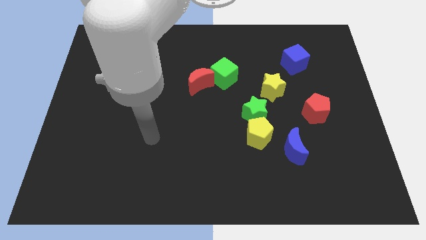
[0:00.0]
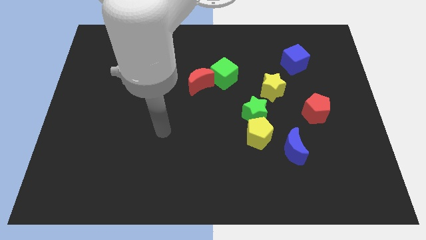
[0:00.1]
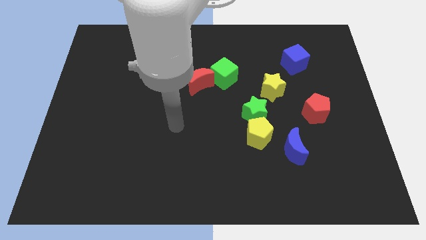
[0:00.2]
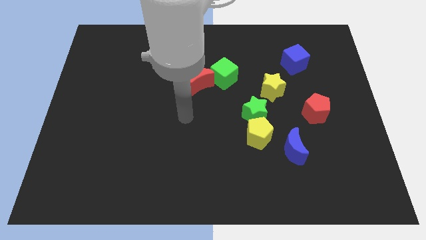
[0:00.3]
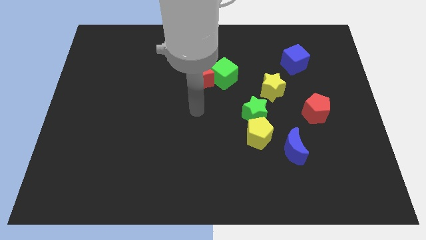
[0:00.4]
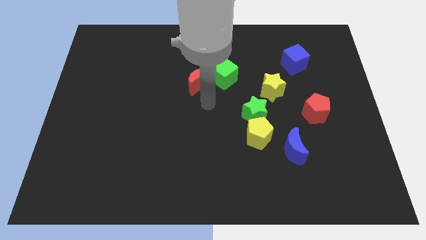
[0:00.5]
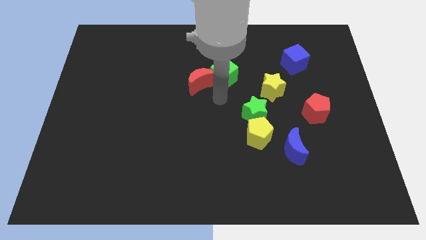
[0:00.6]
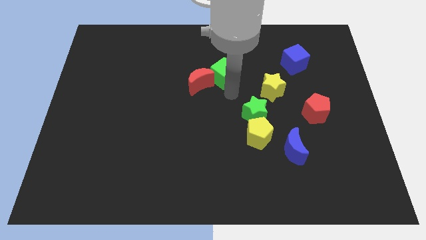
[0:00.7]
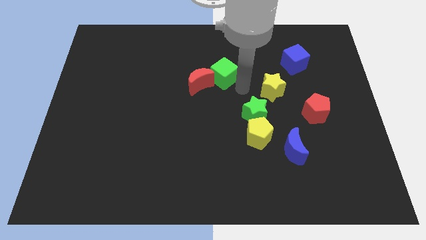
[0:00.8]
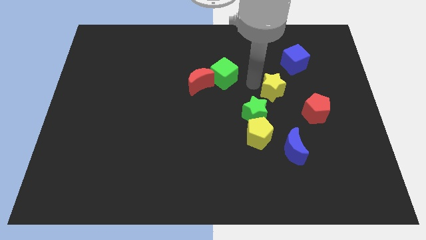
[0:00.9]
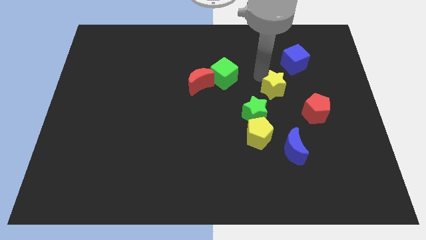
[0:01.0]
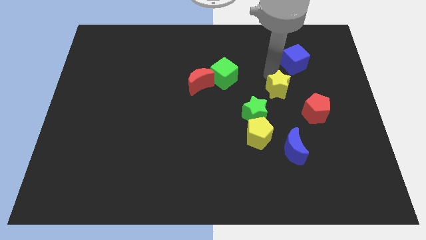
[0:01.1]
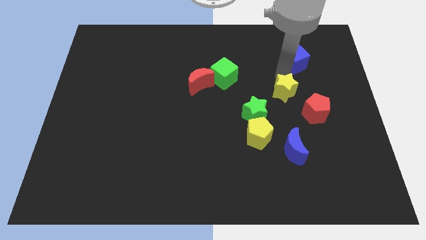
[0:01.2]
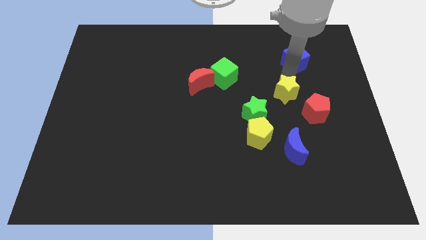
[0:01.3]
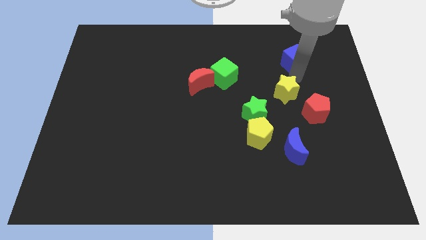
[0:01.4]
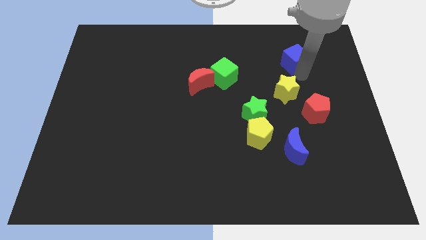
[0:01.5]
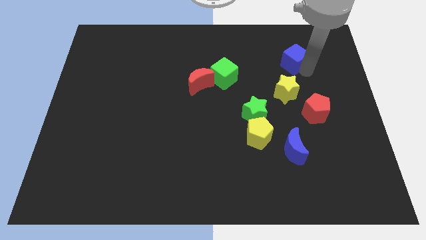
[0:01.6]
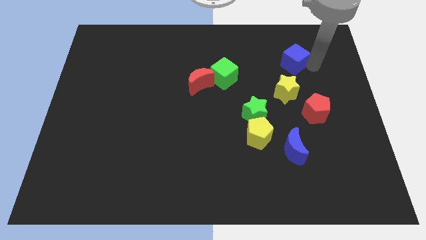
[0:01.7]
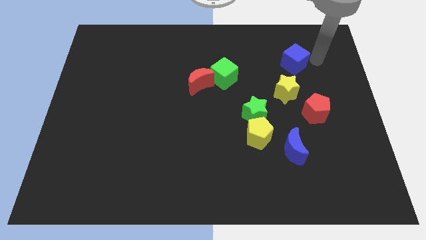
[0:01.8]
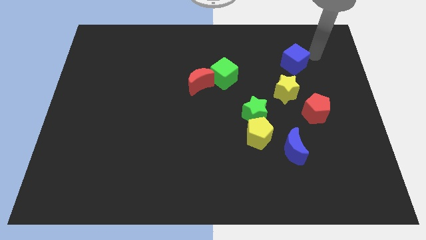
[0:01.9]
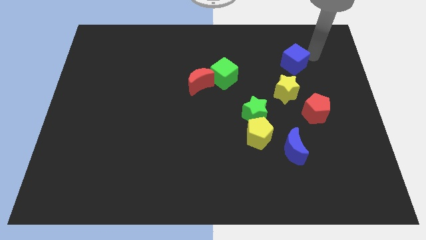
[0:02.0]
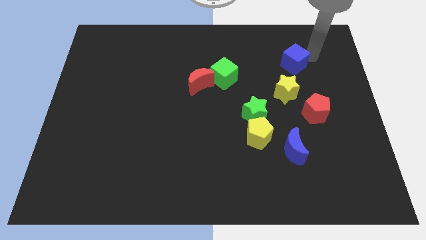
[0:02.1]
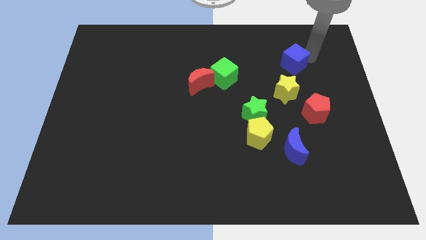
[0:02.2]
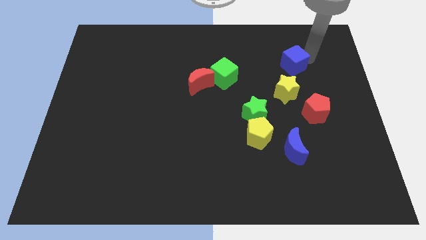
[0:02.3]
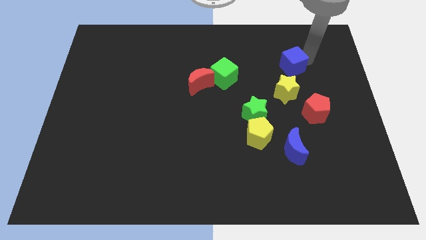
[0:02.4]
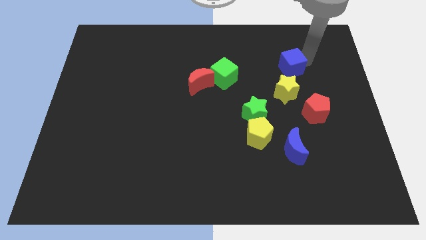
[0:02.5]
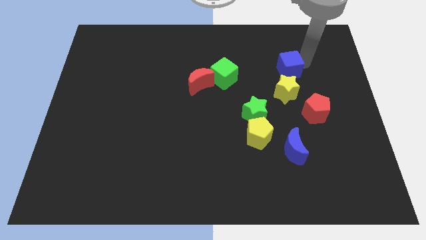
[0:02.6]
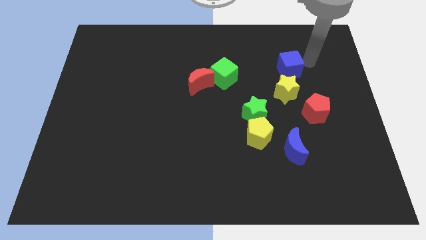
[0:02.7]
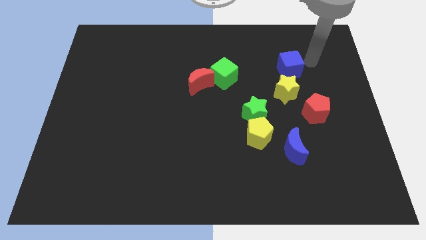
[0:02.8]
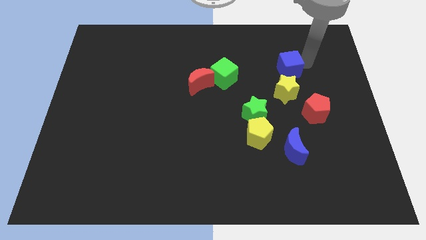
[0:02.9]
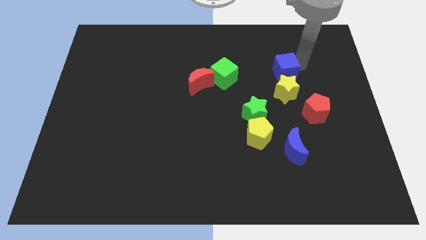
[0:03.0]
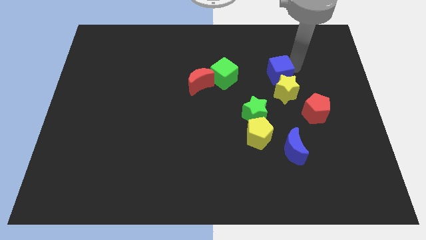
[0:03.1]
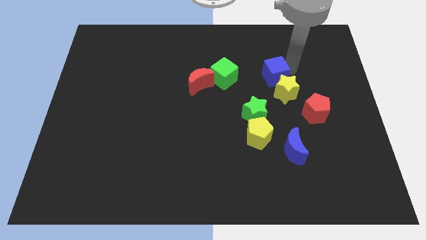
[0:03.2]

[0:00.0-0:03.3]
push the blue cube diagonally downwards and left somewhat

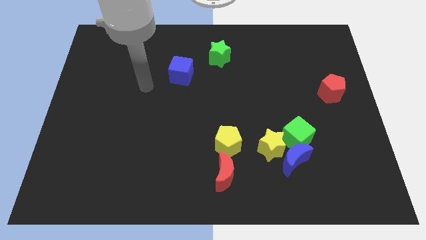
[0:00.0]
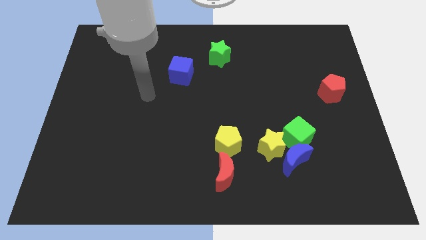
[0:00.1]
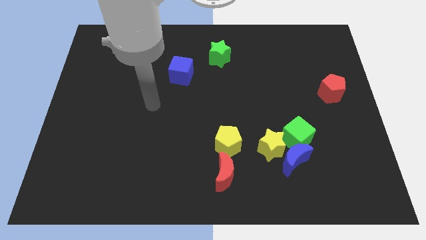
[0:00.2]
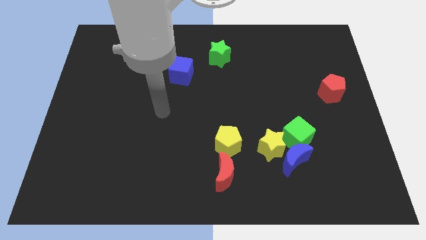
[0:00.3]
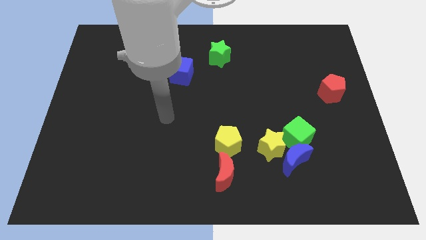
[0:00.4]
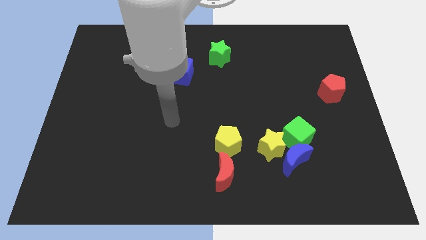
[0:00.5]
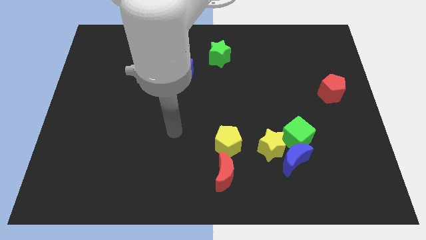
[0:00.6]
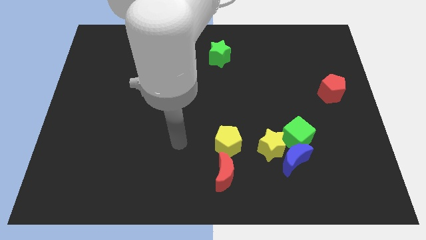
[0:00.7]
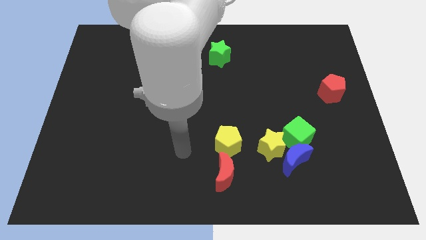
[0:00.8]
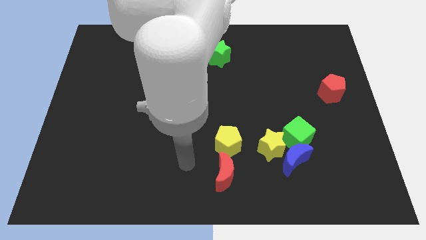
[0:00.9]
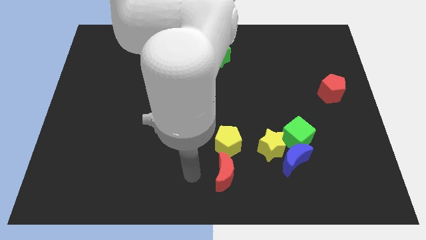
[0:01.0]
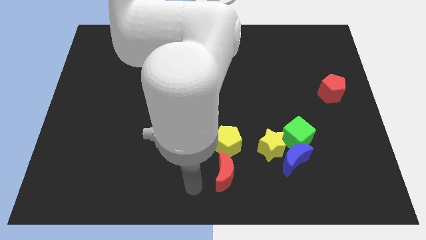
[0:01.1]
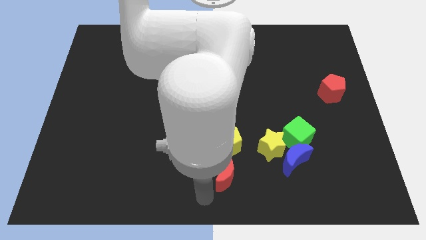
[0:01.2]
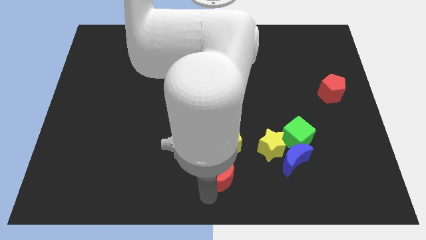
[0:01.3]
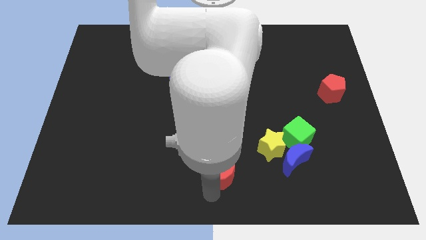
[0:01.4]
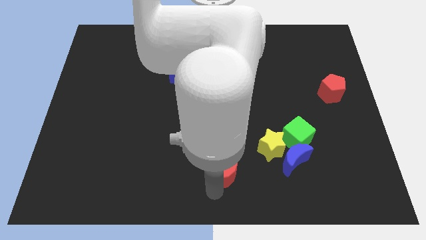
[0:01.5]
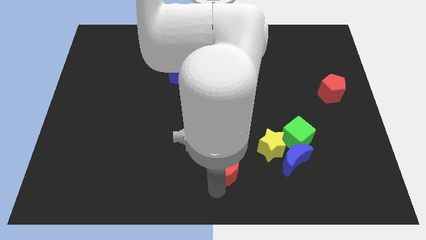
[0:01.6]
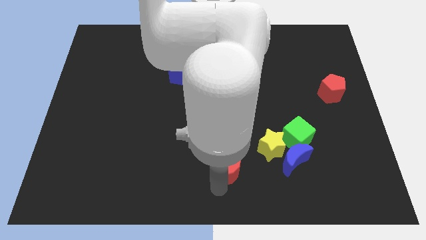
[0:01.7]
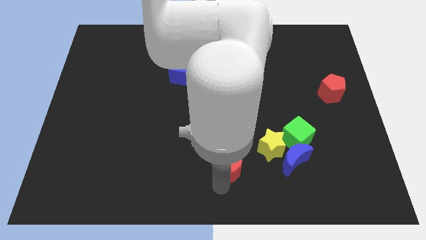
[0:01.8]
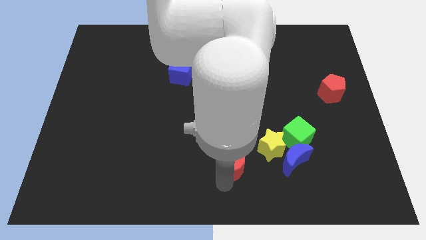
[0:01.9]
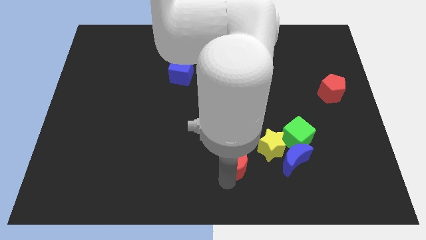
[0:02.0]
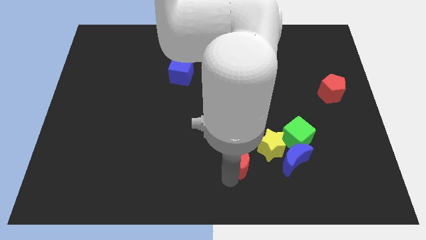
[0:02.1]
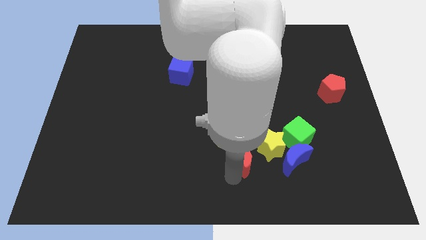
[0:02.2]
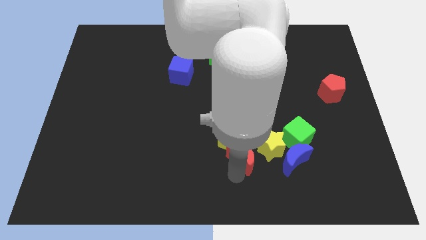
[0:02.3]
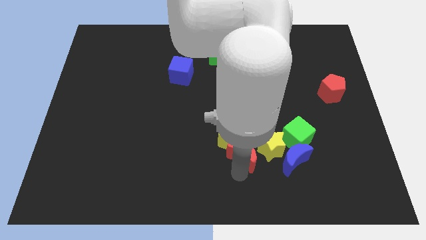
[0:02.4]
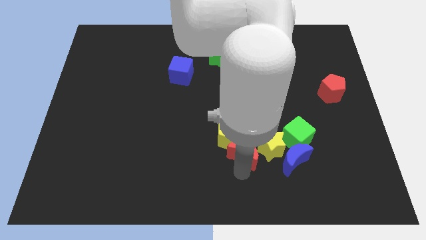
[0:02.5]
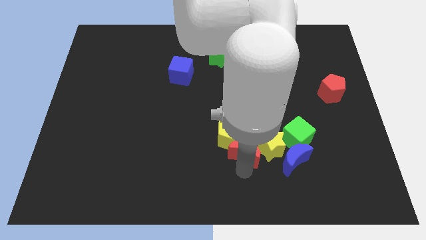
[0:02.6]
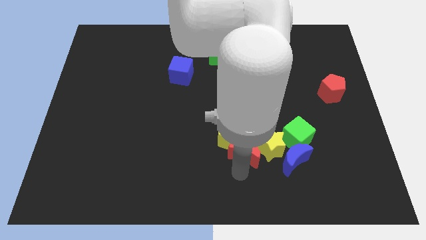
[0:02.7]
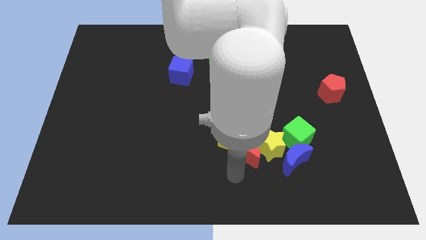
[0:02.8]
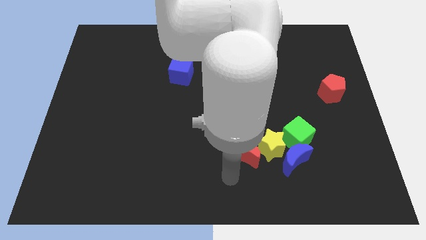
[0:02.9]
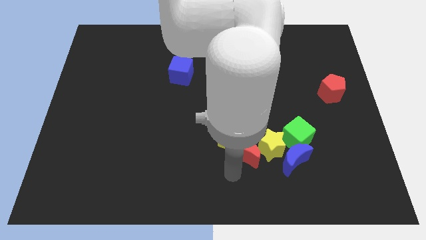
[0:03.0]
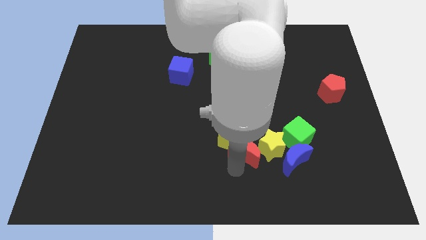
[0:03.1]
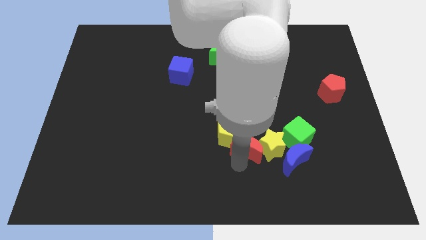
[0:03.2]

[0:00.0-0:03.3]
slightly move the red moon up and then right

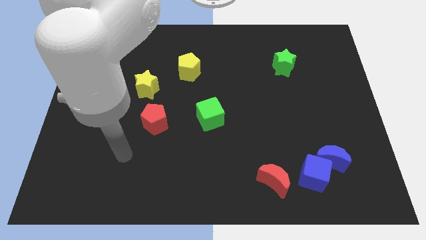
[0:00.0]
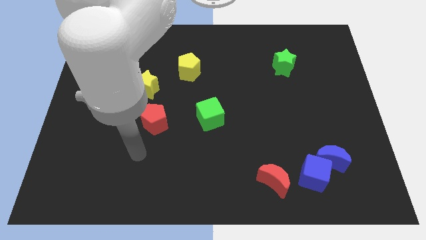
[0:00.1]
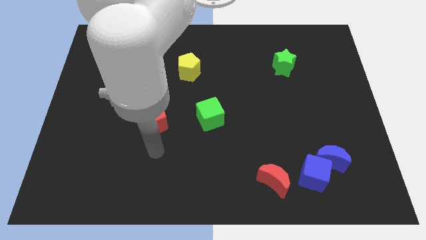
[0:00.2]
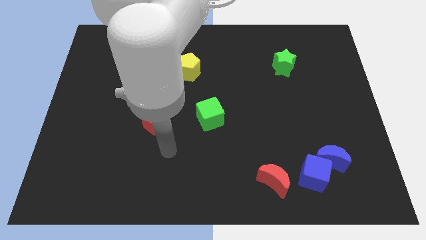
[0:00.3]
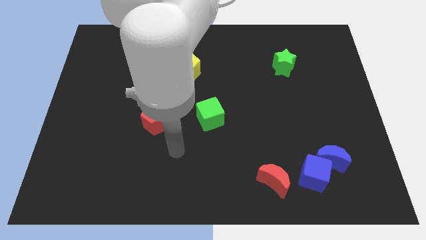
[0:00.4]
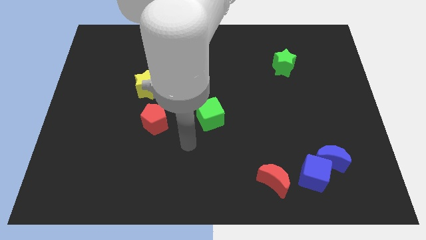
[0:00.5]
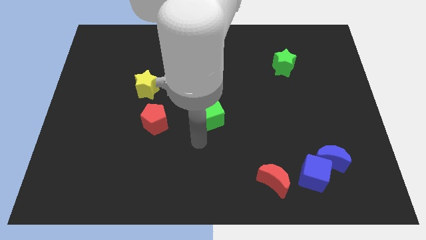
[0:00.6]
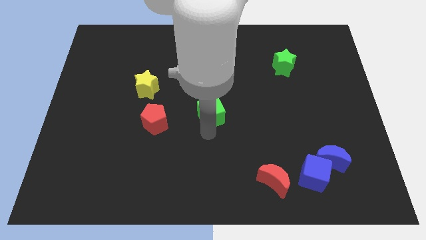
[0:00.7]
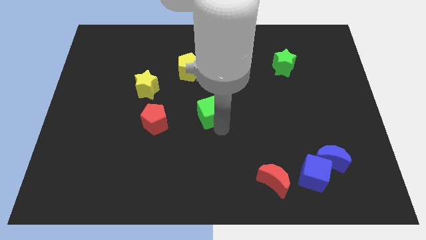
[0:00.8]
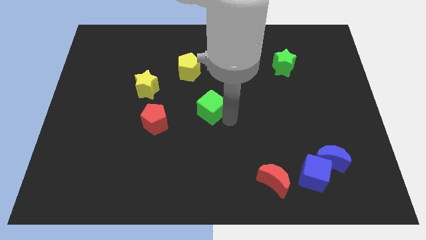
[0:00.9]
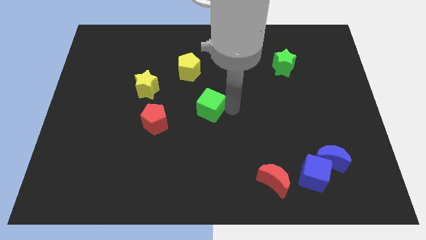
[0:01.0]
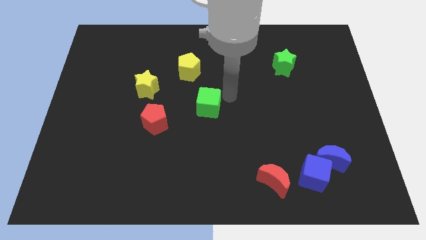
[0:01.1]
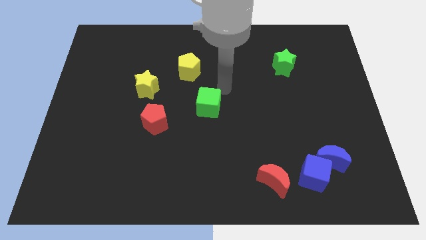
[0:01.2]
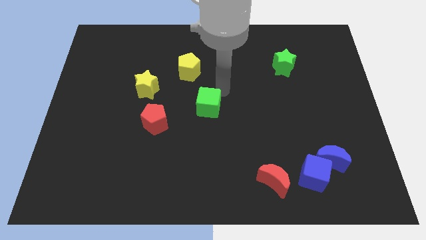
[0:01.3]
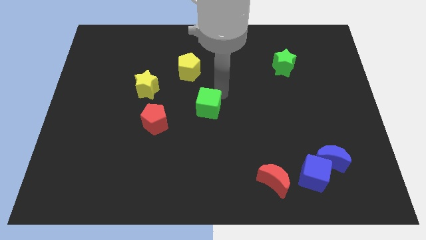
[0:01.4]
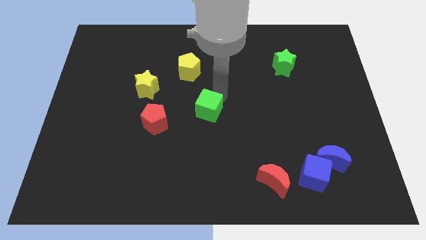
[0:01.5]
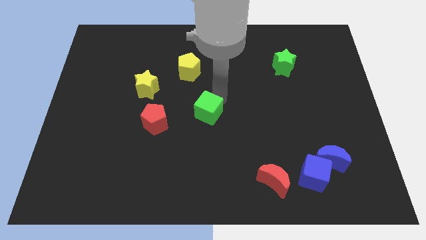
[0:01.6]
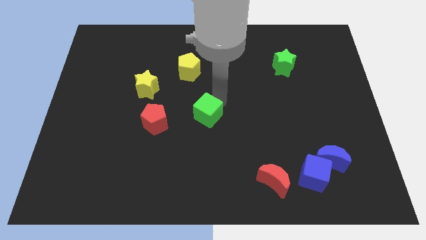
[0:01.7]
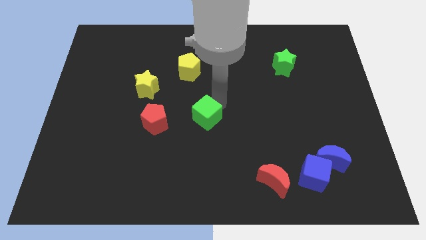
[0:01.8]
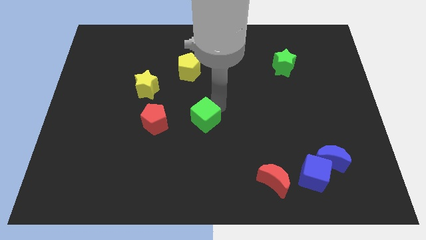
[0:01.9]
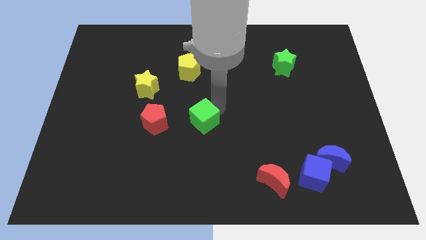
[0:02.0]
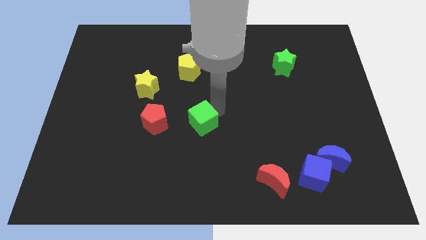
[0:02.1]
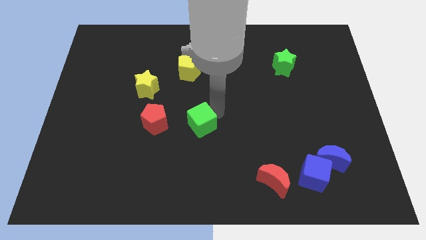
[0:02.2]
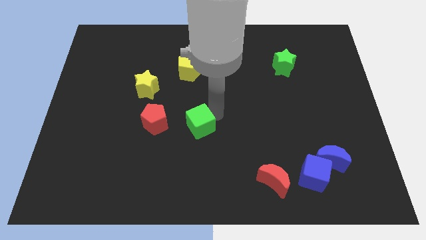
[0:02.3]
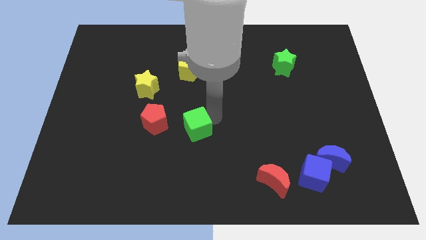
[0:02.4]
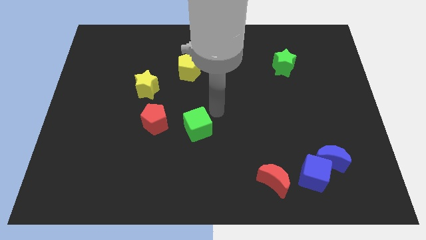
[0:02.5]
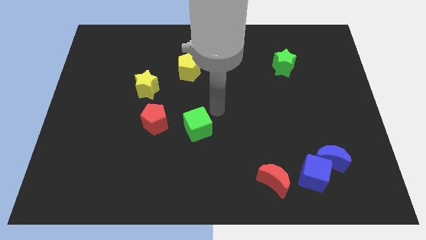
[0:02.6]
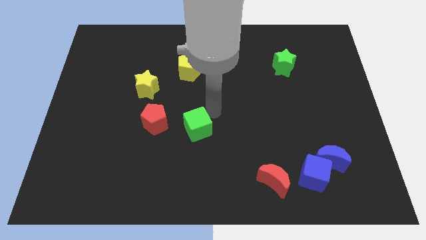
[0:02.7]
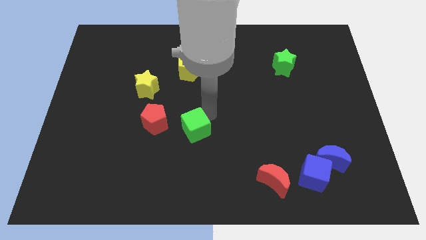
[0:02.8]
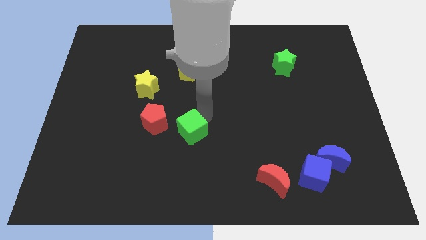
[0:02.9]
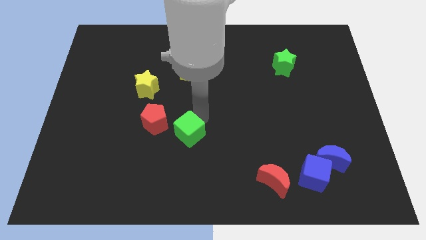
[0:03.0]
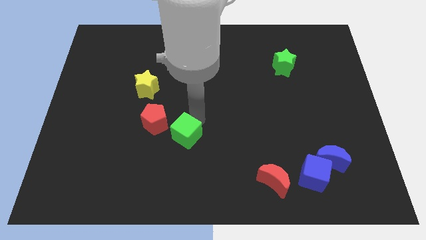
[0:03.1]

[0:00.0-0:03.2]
move the green cube downwards and left diagonally slightly
